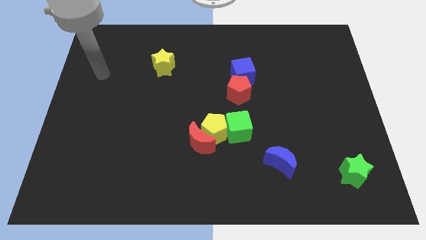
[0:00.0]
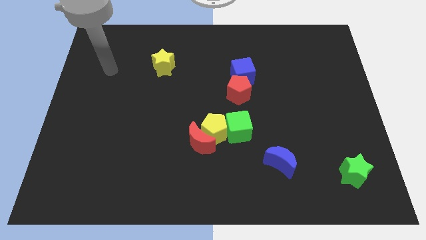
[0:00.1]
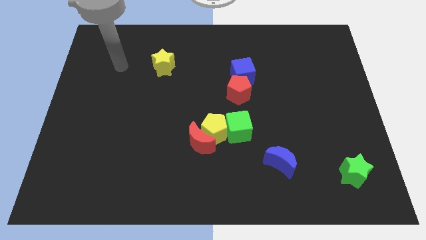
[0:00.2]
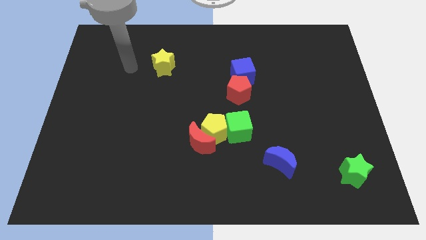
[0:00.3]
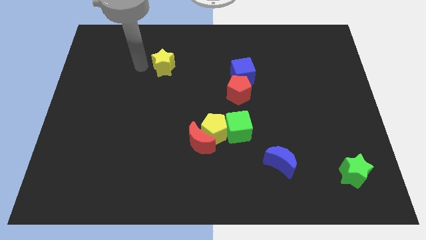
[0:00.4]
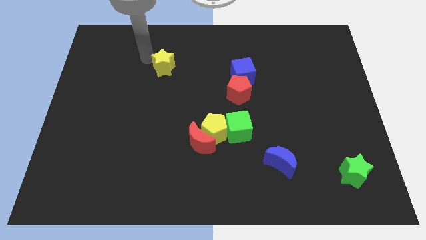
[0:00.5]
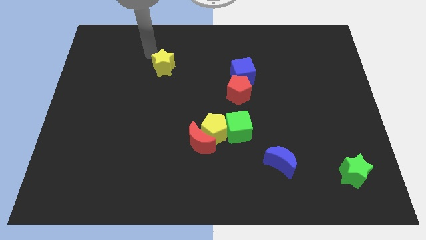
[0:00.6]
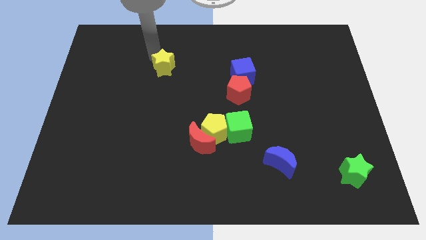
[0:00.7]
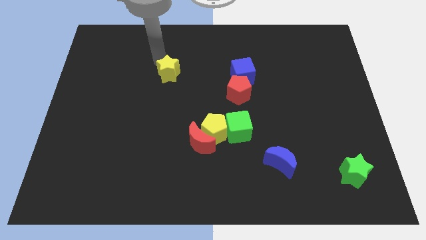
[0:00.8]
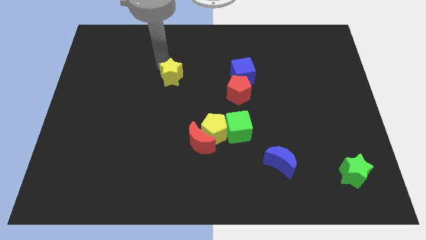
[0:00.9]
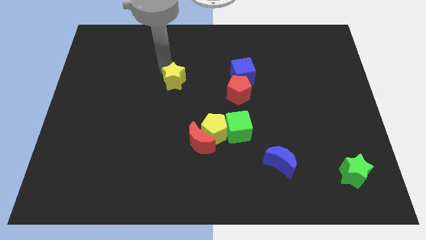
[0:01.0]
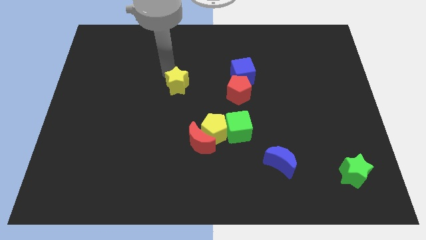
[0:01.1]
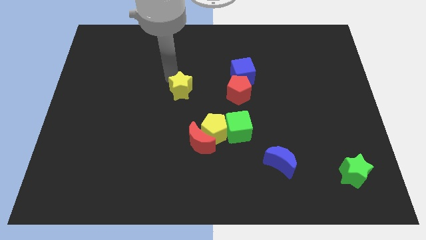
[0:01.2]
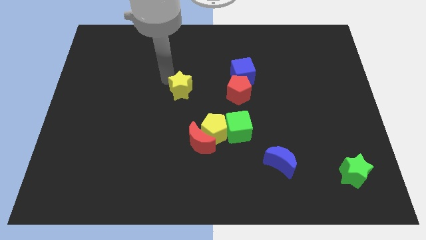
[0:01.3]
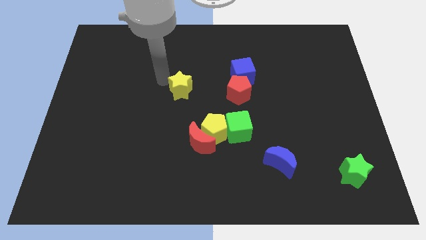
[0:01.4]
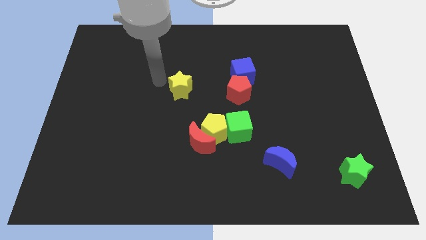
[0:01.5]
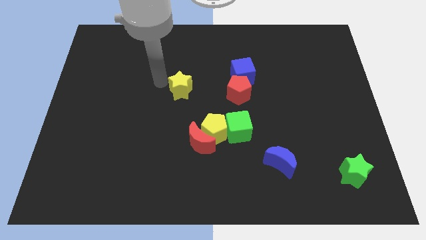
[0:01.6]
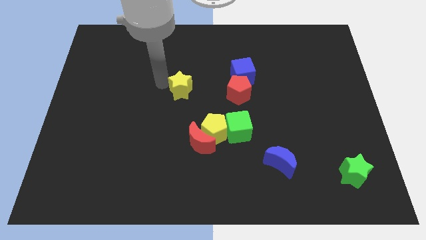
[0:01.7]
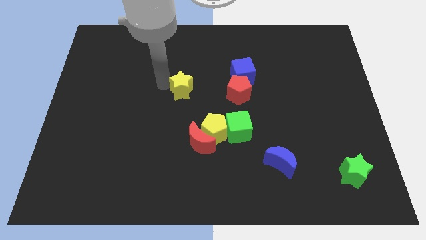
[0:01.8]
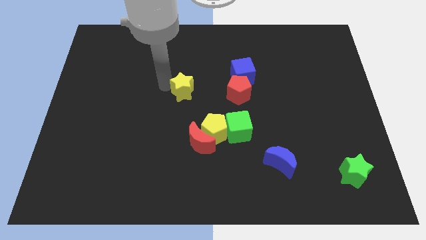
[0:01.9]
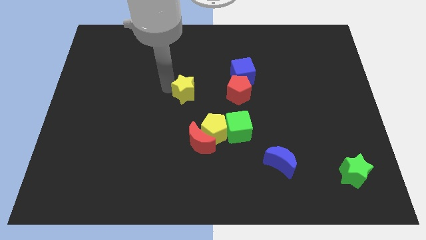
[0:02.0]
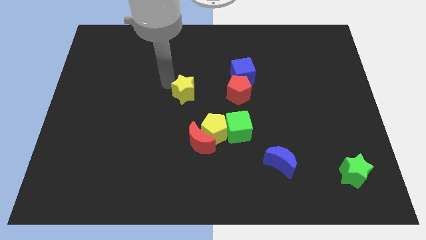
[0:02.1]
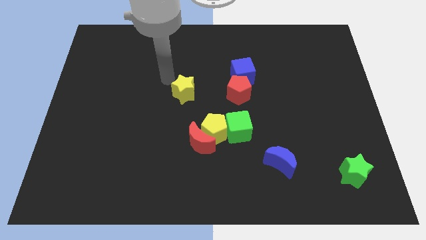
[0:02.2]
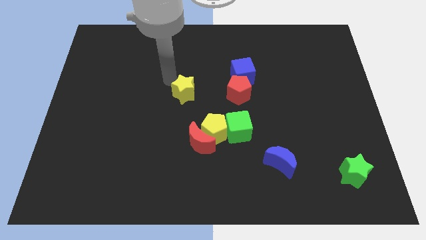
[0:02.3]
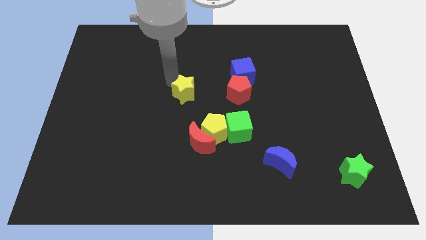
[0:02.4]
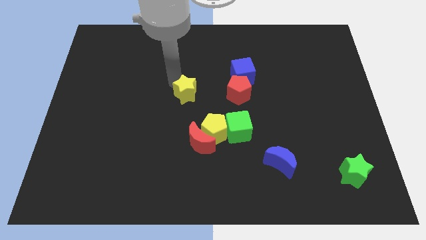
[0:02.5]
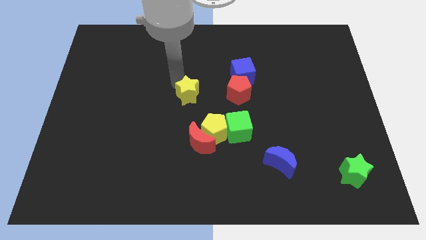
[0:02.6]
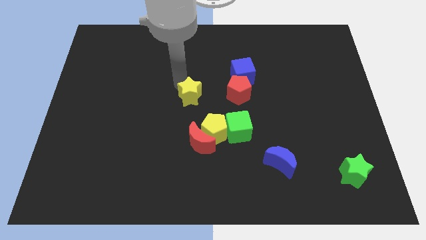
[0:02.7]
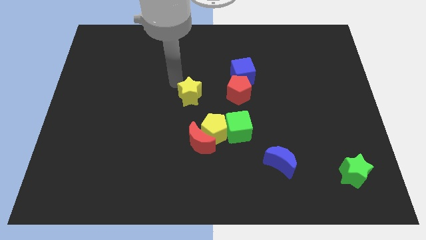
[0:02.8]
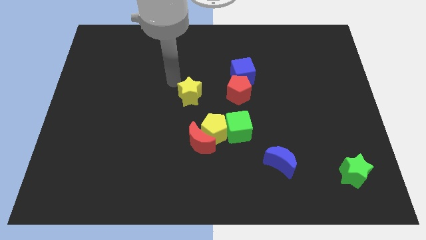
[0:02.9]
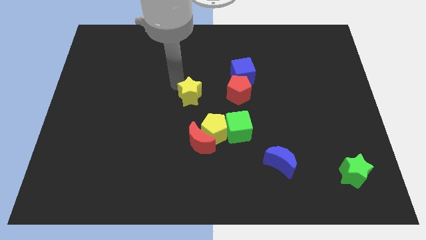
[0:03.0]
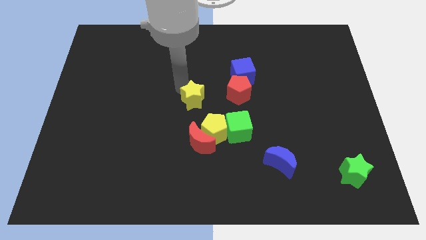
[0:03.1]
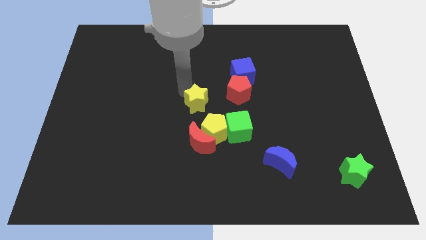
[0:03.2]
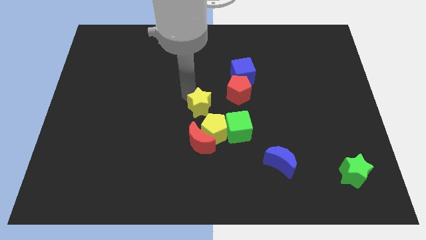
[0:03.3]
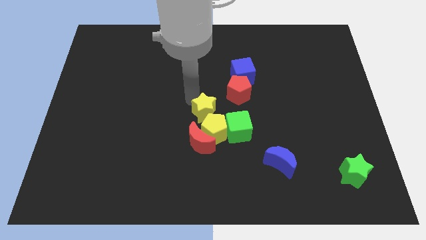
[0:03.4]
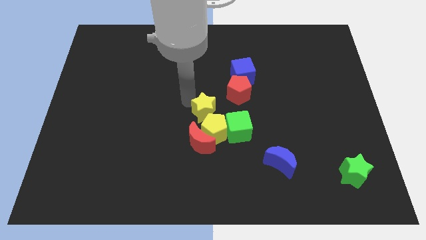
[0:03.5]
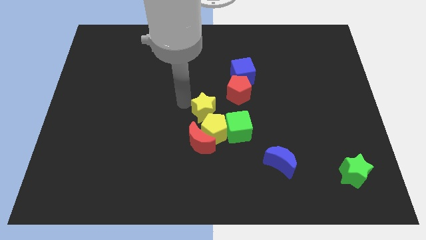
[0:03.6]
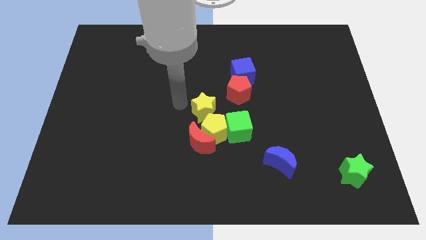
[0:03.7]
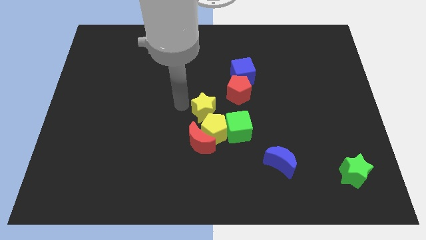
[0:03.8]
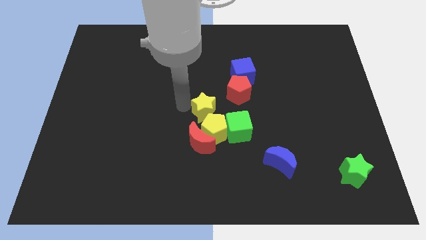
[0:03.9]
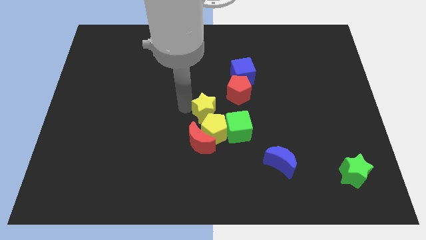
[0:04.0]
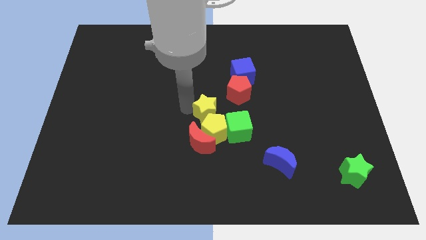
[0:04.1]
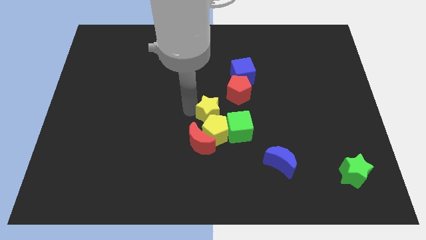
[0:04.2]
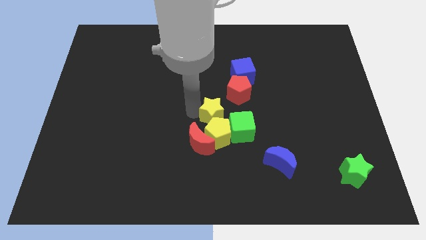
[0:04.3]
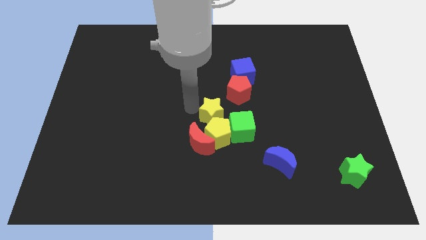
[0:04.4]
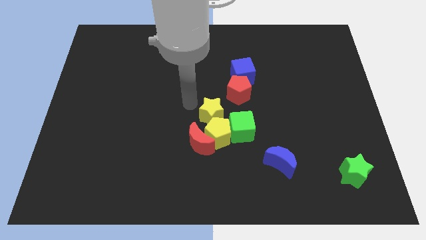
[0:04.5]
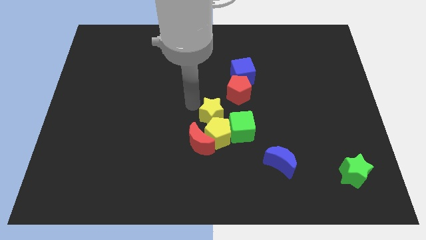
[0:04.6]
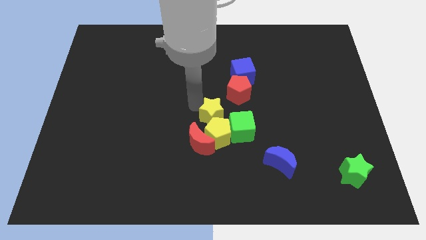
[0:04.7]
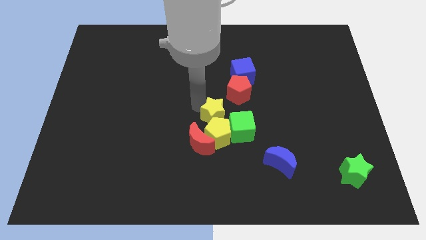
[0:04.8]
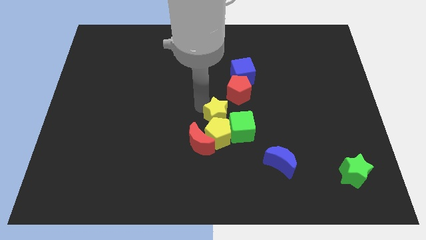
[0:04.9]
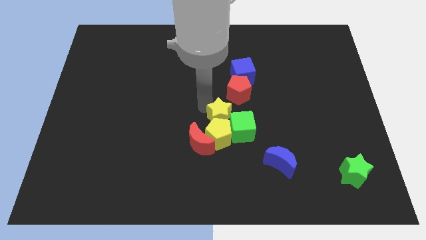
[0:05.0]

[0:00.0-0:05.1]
push the yellow star to the green cube

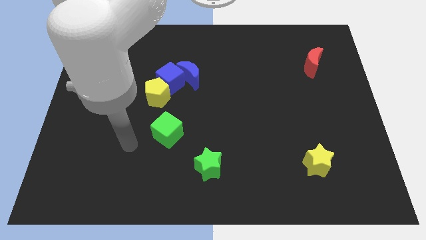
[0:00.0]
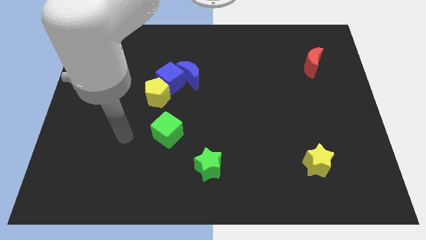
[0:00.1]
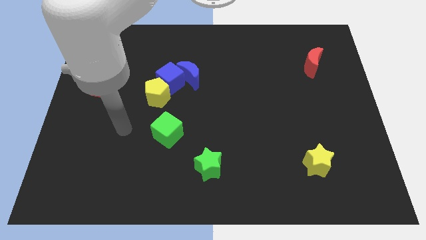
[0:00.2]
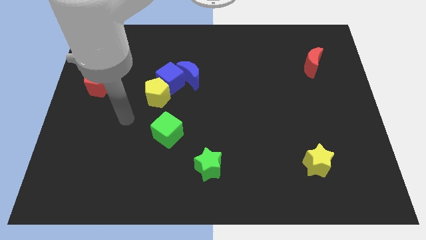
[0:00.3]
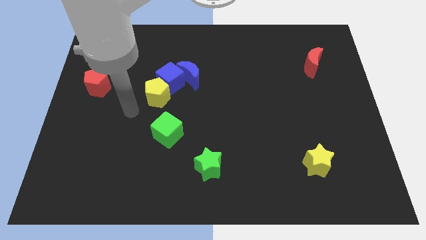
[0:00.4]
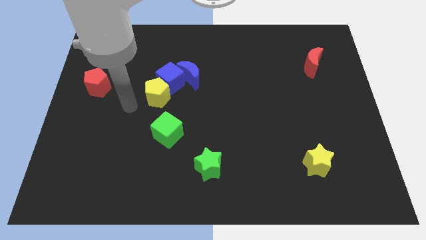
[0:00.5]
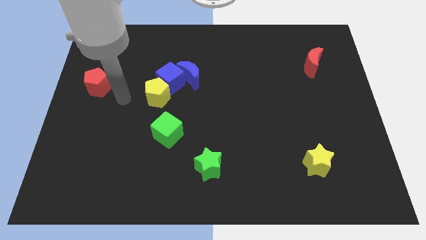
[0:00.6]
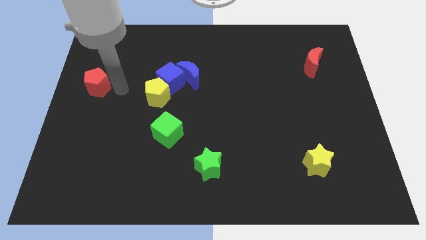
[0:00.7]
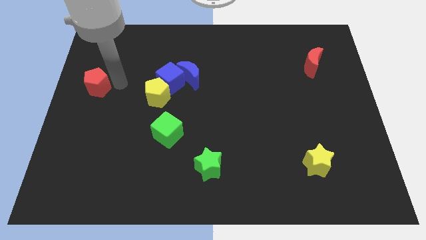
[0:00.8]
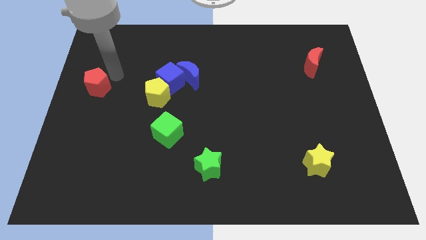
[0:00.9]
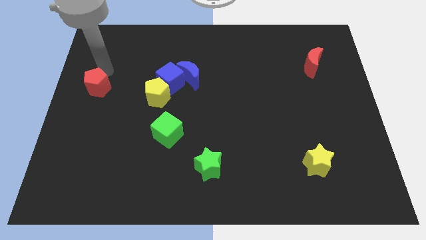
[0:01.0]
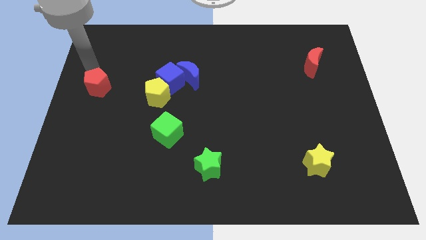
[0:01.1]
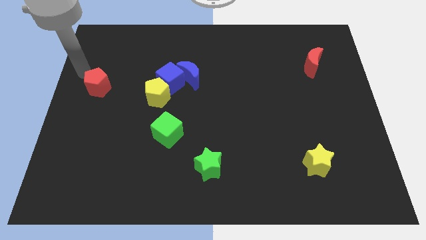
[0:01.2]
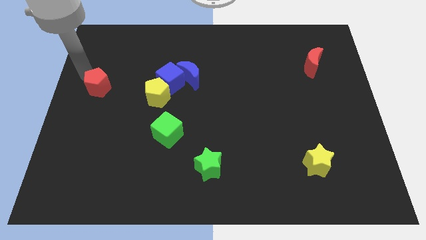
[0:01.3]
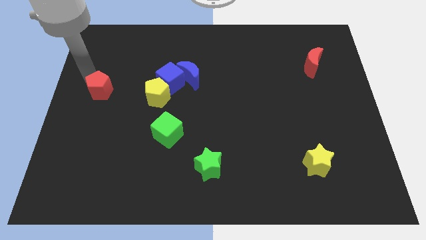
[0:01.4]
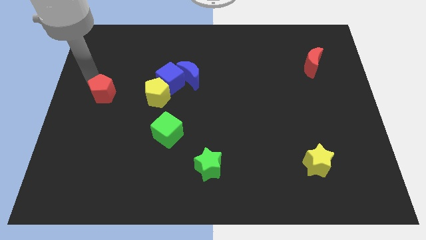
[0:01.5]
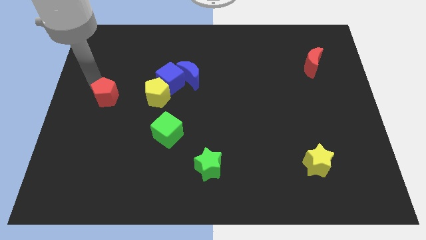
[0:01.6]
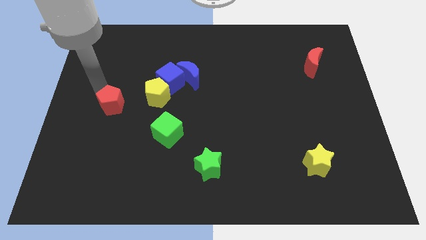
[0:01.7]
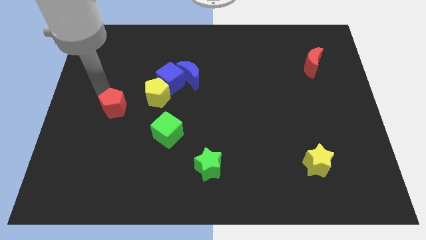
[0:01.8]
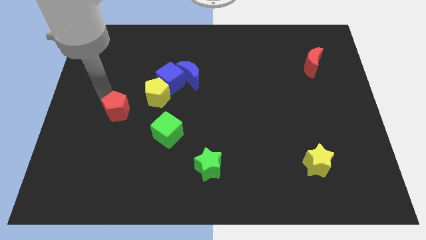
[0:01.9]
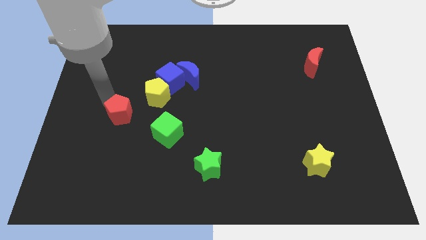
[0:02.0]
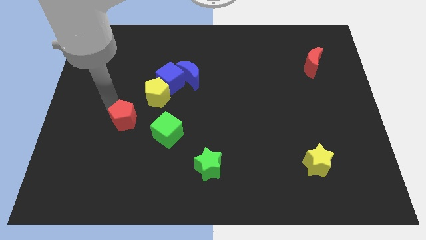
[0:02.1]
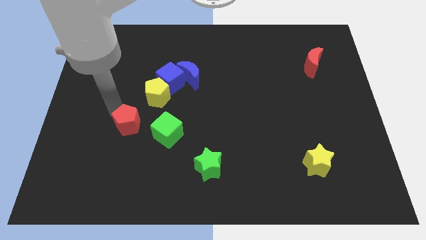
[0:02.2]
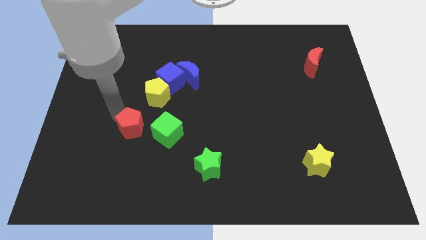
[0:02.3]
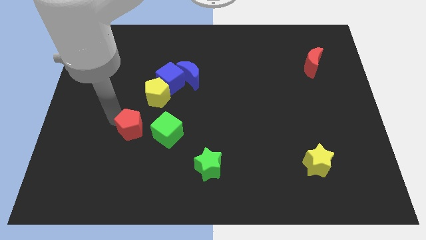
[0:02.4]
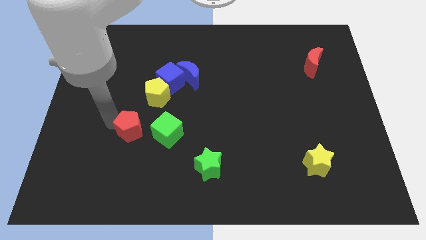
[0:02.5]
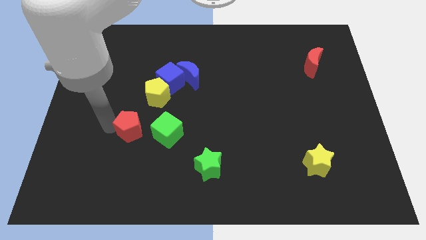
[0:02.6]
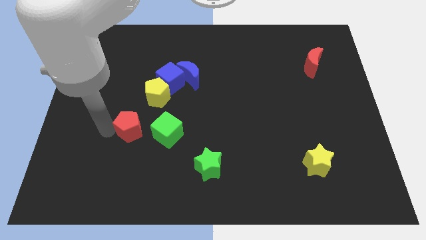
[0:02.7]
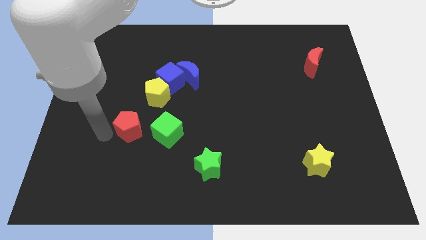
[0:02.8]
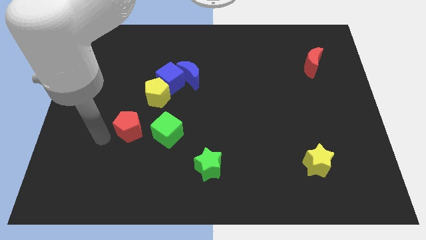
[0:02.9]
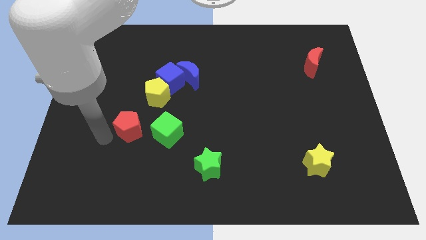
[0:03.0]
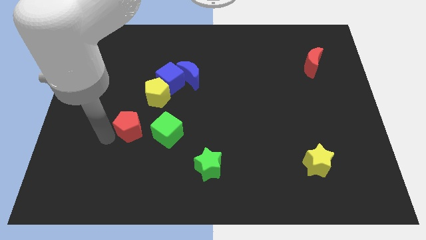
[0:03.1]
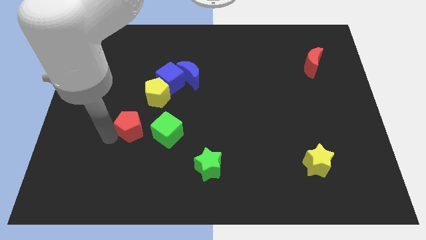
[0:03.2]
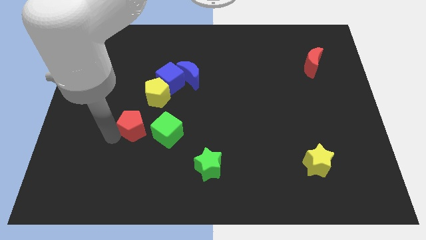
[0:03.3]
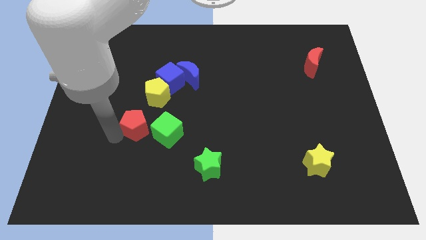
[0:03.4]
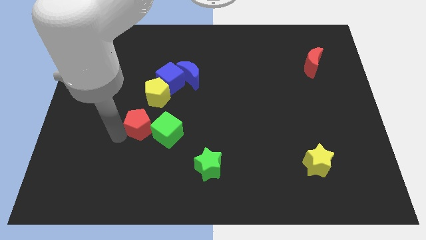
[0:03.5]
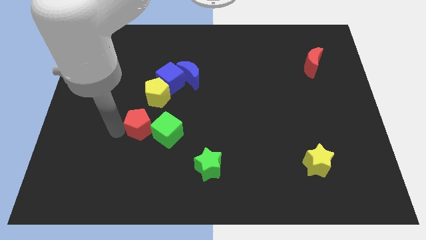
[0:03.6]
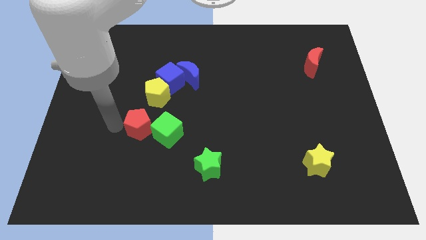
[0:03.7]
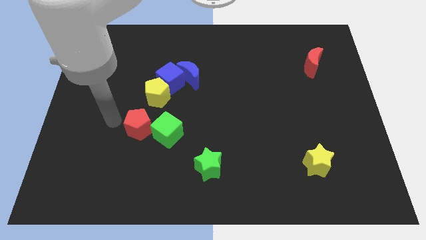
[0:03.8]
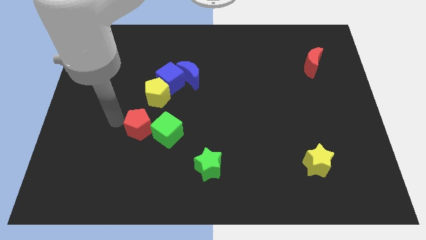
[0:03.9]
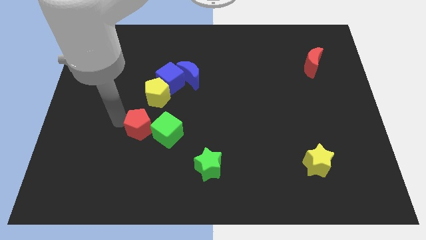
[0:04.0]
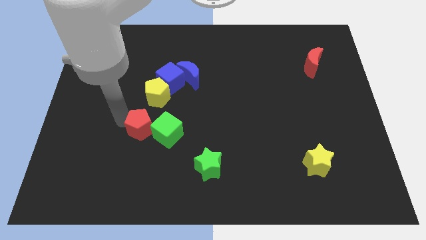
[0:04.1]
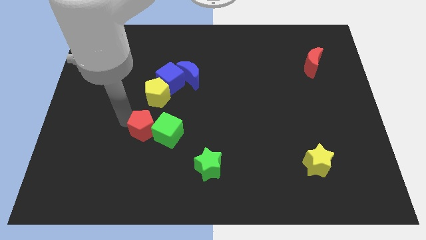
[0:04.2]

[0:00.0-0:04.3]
move the red pentagon towards the green cube
